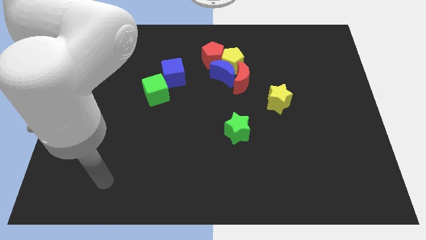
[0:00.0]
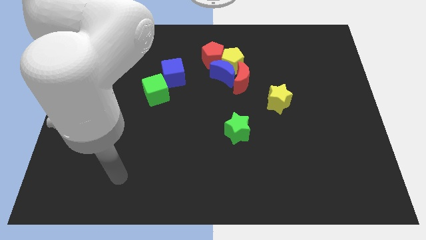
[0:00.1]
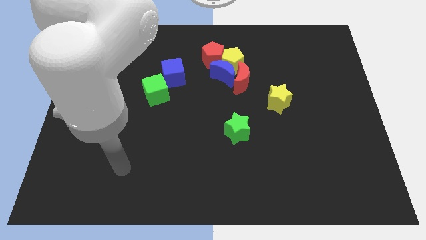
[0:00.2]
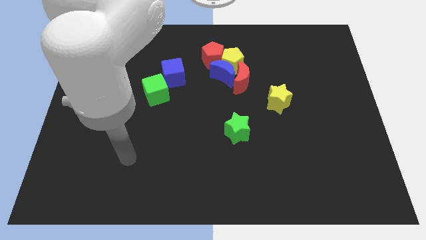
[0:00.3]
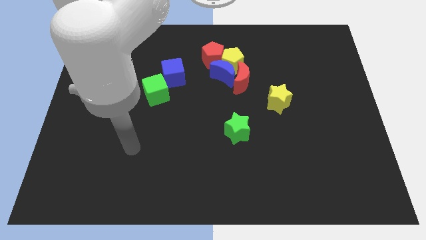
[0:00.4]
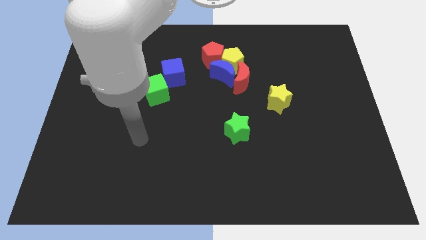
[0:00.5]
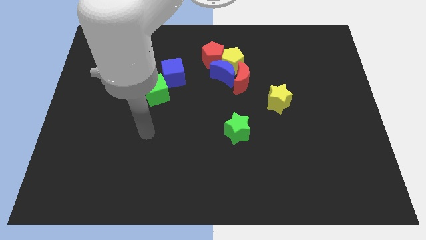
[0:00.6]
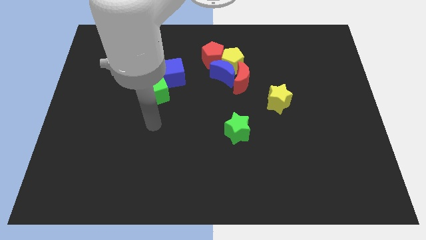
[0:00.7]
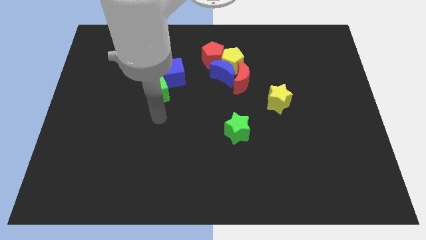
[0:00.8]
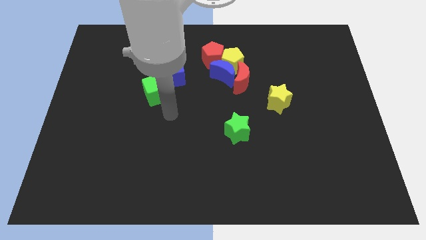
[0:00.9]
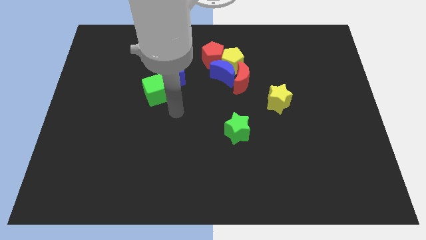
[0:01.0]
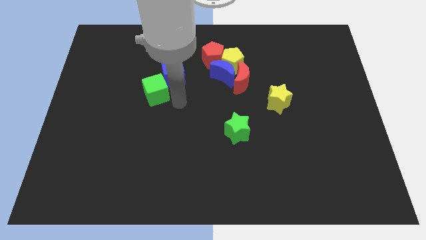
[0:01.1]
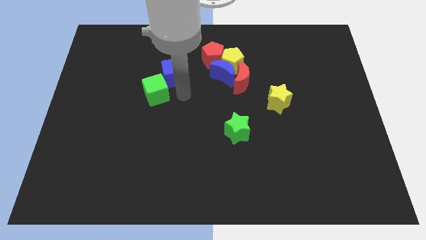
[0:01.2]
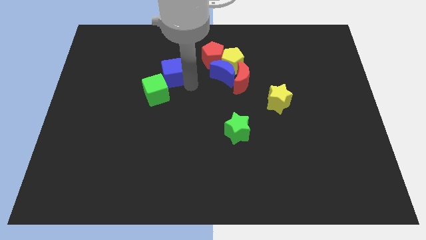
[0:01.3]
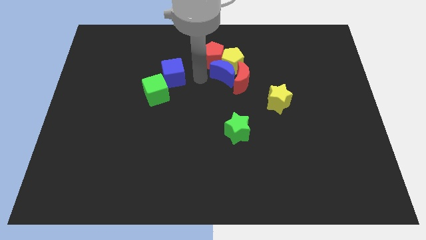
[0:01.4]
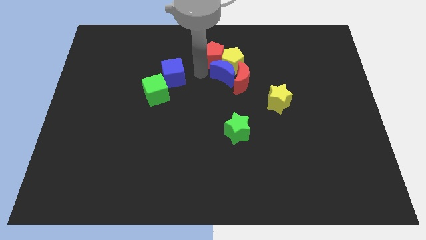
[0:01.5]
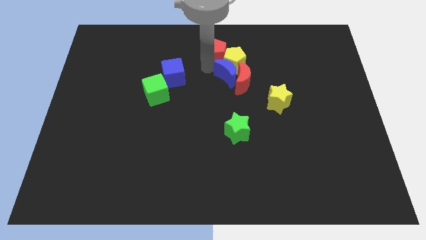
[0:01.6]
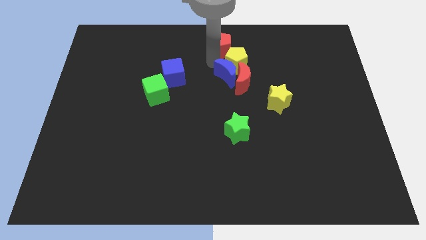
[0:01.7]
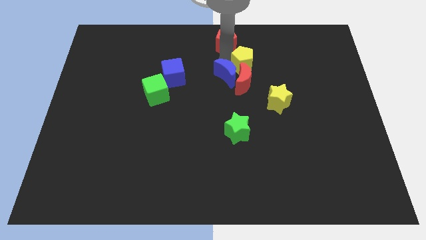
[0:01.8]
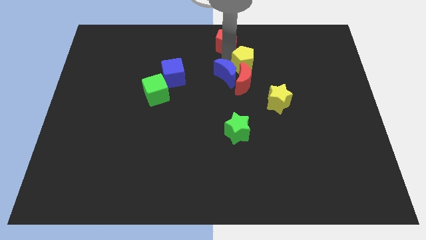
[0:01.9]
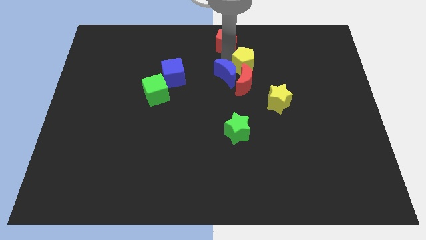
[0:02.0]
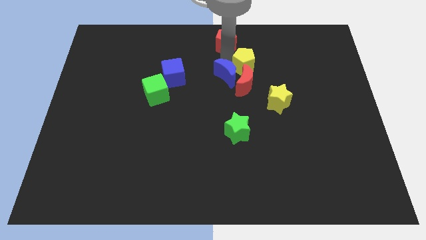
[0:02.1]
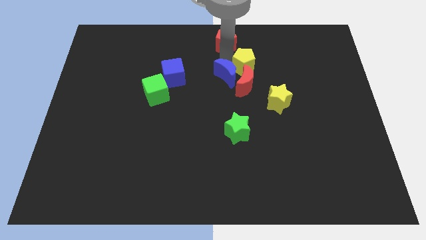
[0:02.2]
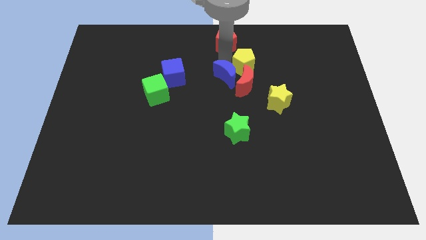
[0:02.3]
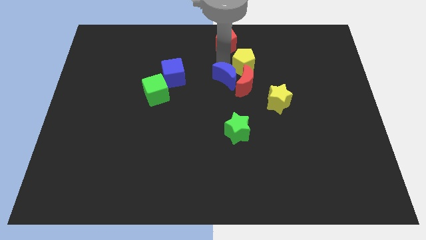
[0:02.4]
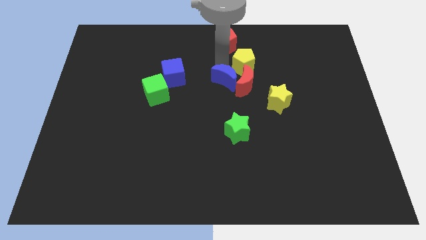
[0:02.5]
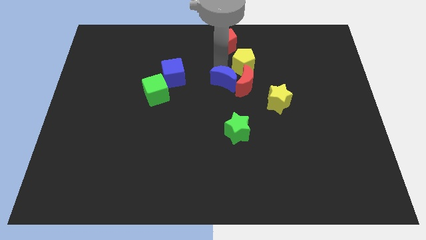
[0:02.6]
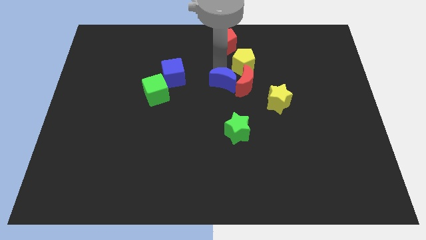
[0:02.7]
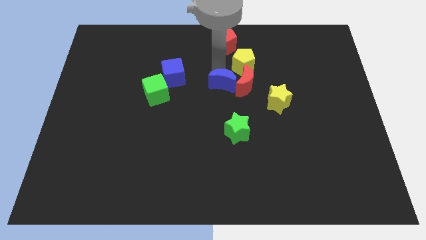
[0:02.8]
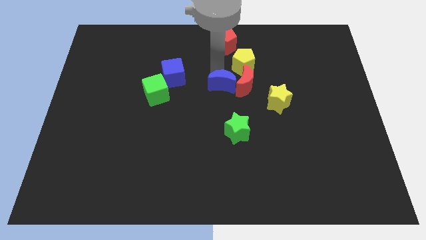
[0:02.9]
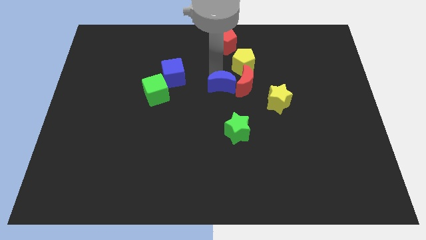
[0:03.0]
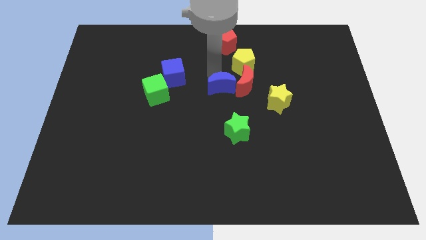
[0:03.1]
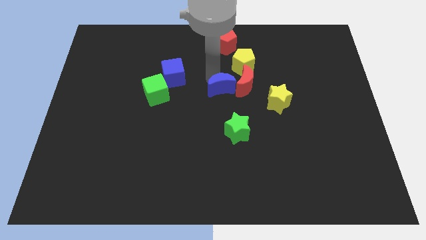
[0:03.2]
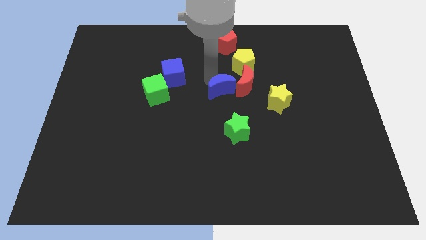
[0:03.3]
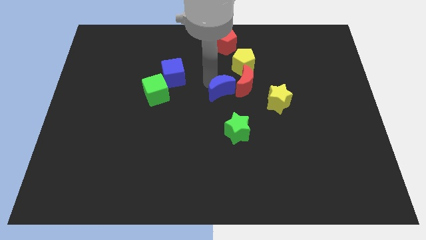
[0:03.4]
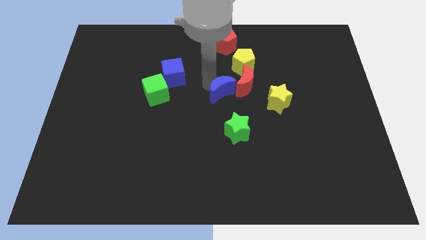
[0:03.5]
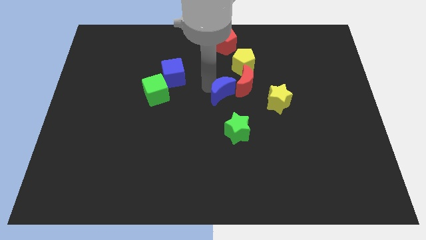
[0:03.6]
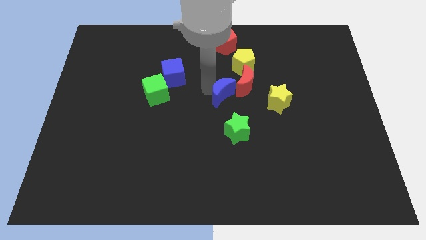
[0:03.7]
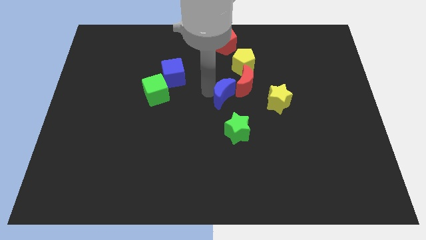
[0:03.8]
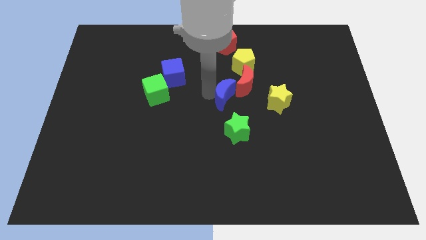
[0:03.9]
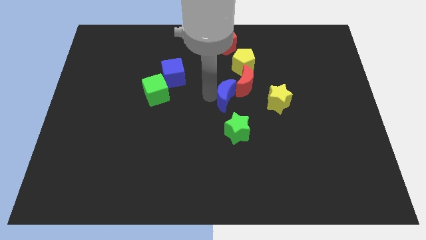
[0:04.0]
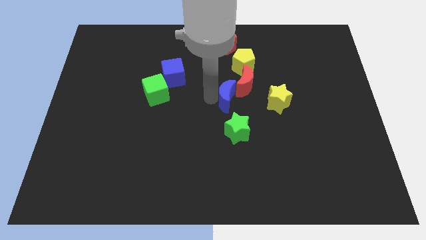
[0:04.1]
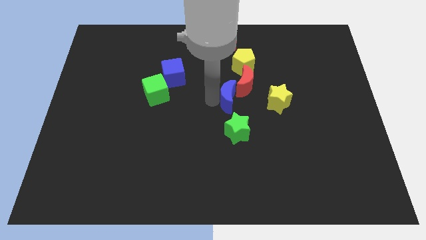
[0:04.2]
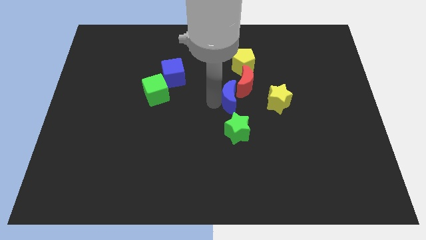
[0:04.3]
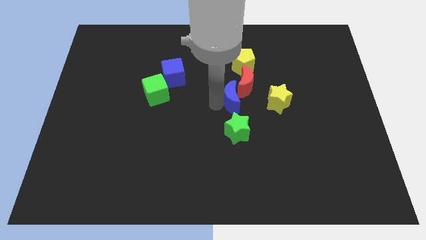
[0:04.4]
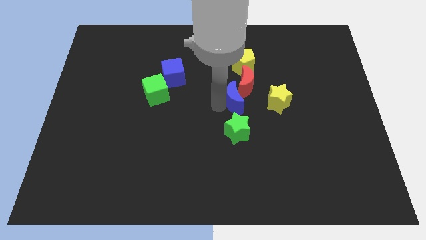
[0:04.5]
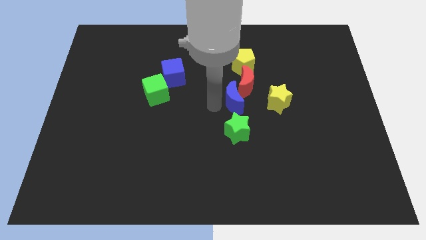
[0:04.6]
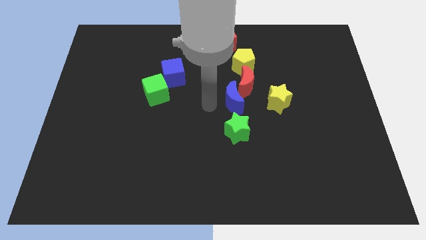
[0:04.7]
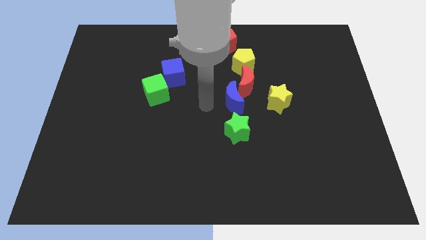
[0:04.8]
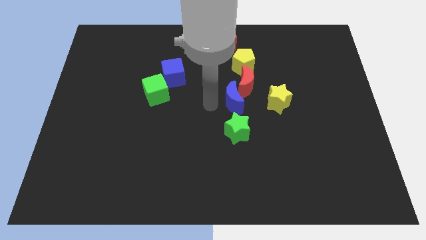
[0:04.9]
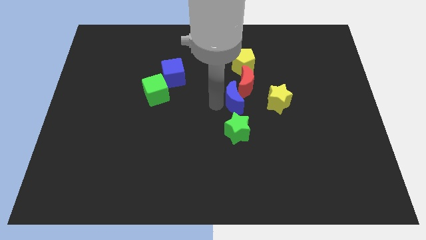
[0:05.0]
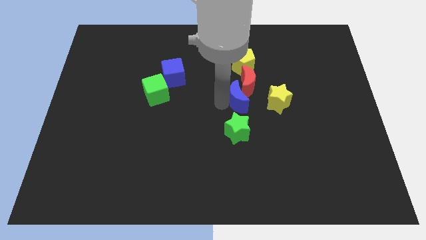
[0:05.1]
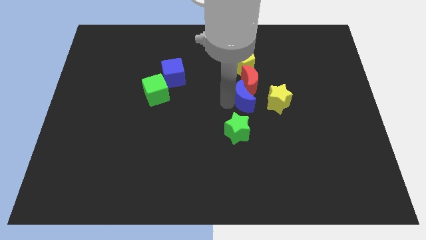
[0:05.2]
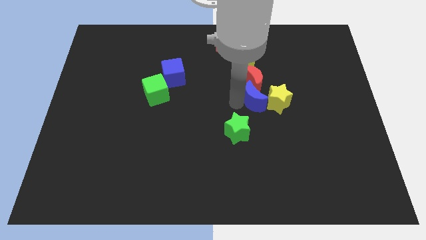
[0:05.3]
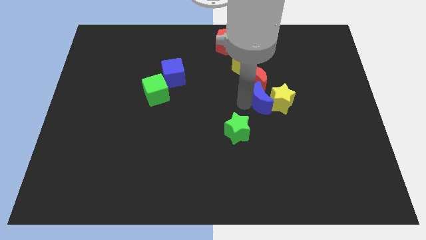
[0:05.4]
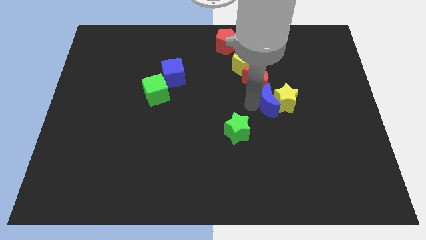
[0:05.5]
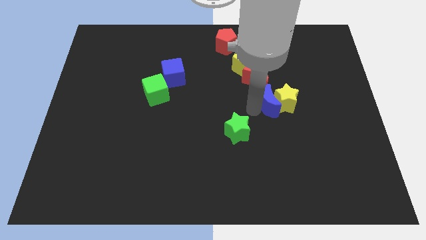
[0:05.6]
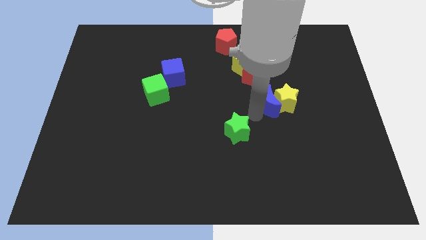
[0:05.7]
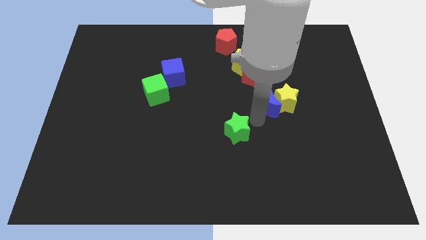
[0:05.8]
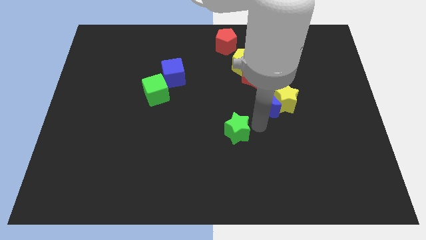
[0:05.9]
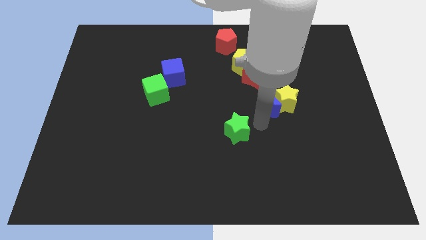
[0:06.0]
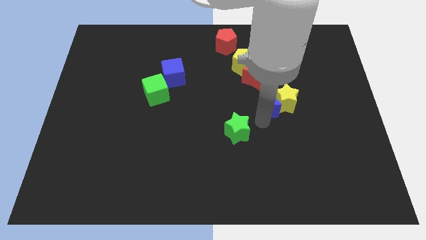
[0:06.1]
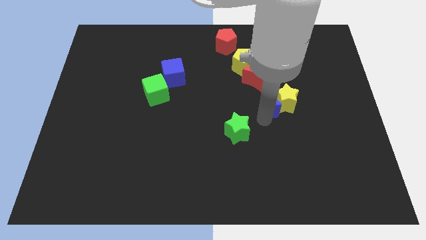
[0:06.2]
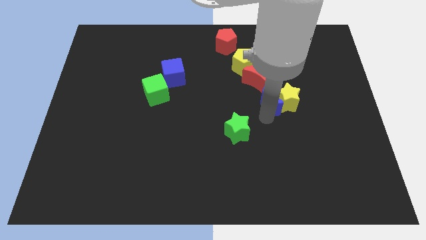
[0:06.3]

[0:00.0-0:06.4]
slightly slide the blue moon right

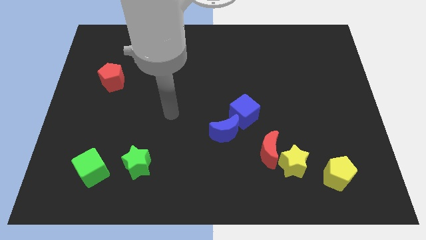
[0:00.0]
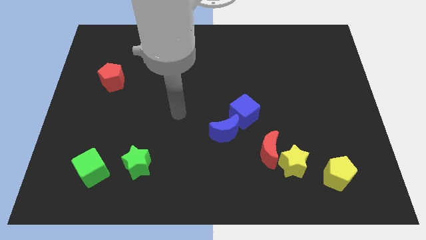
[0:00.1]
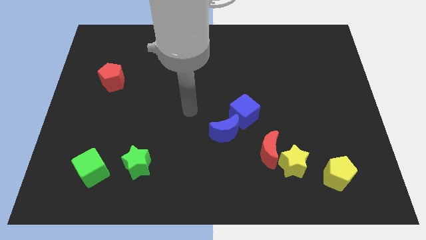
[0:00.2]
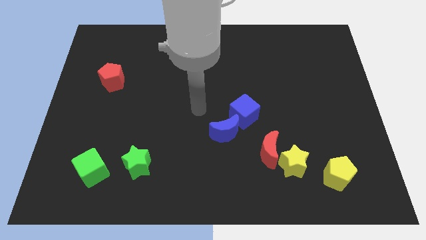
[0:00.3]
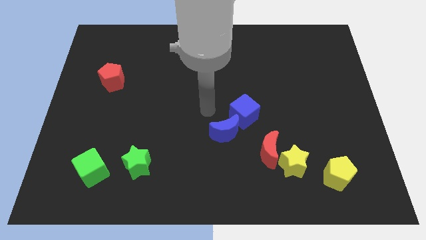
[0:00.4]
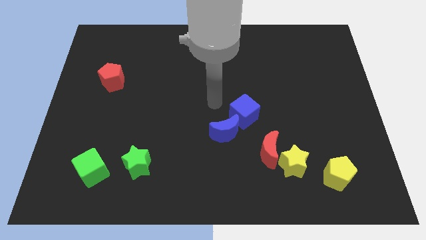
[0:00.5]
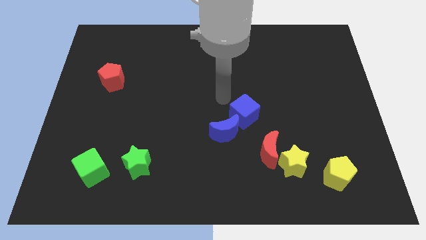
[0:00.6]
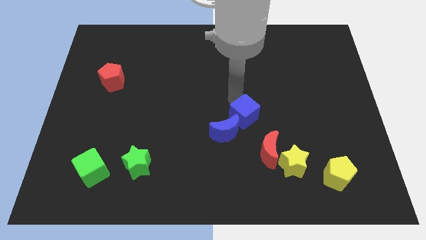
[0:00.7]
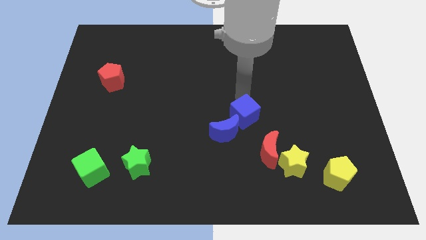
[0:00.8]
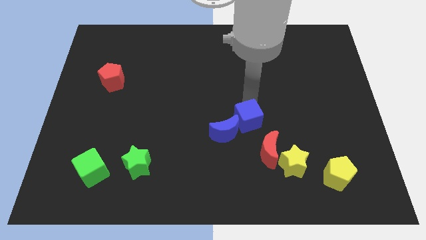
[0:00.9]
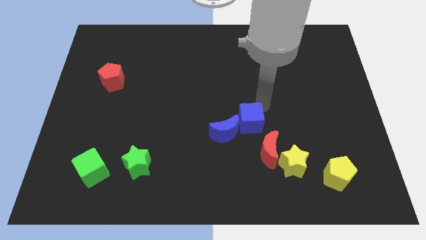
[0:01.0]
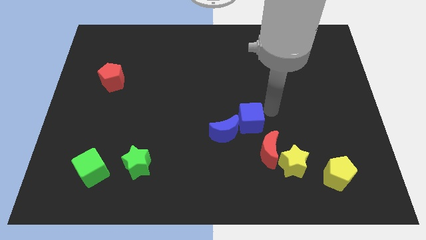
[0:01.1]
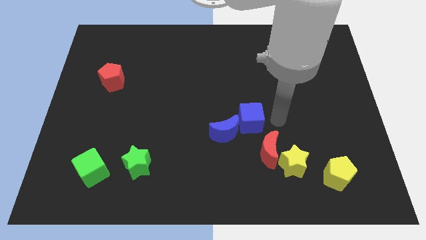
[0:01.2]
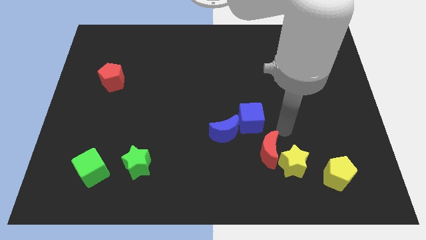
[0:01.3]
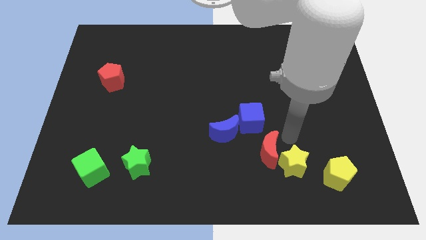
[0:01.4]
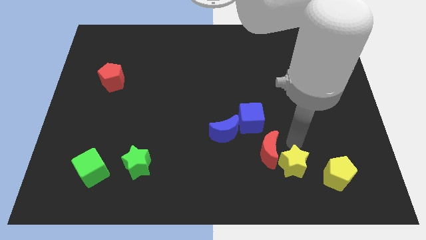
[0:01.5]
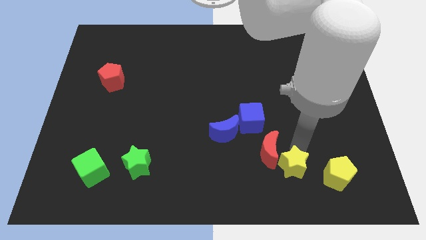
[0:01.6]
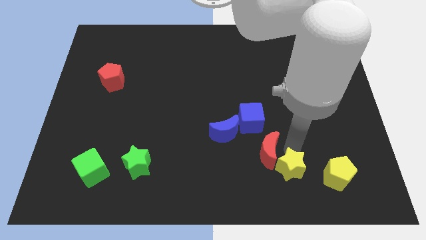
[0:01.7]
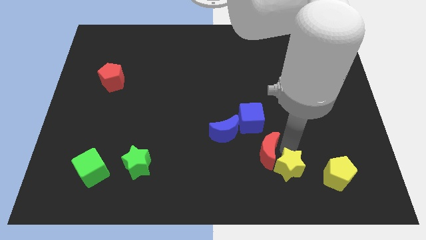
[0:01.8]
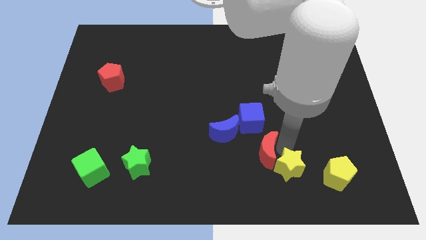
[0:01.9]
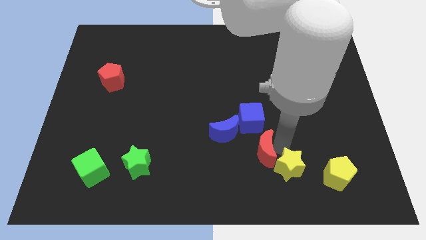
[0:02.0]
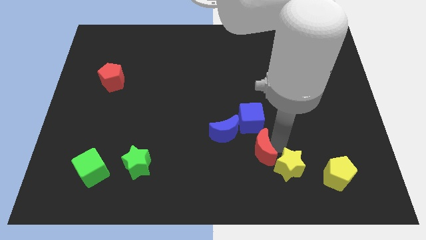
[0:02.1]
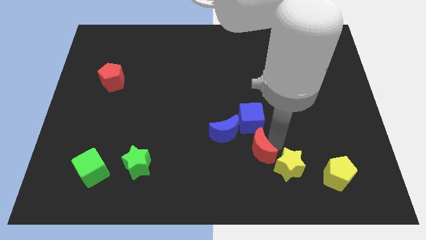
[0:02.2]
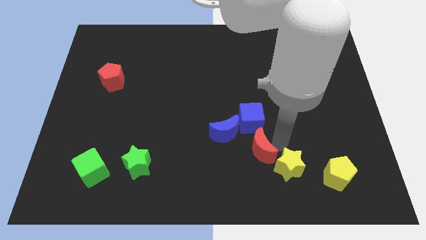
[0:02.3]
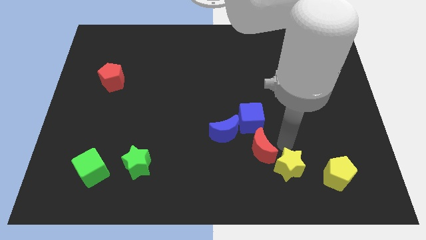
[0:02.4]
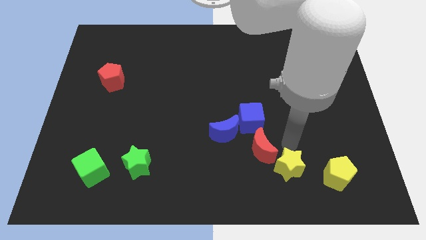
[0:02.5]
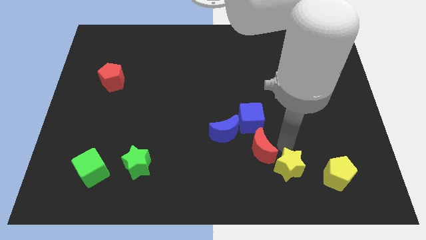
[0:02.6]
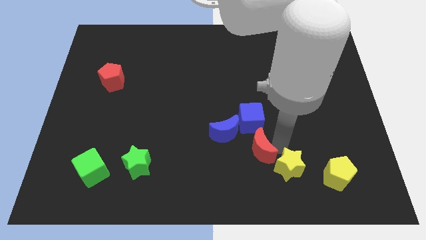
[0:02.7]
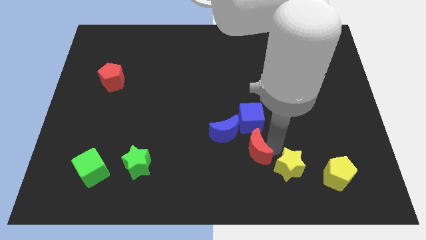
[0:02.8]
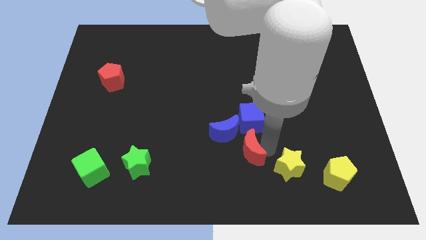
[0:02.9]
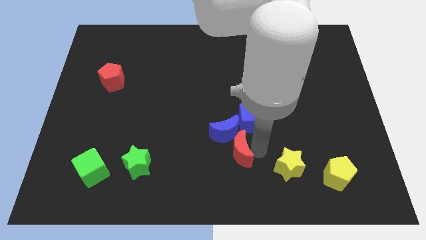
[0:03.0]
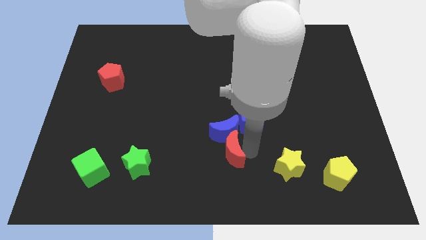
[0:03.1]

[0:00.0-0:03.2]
move the red moon left a bit
